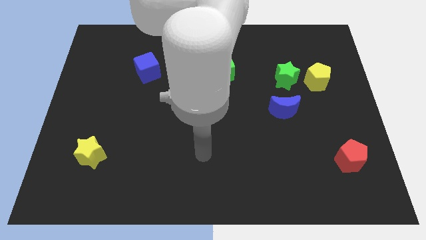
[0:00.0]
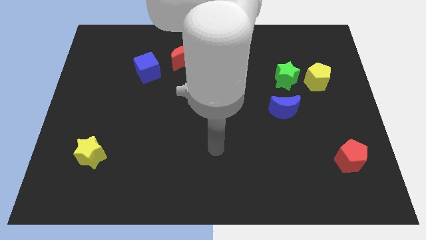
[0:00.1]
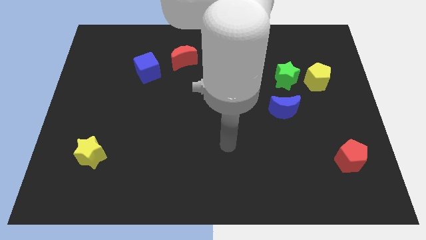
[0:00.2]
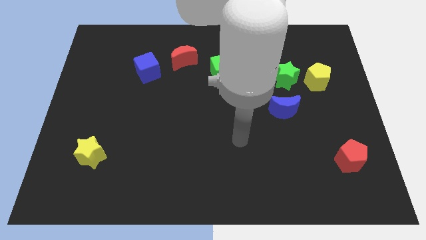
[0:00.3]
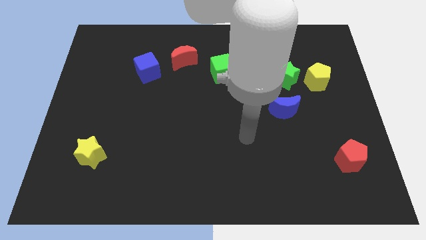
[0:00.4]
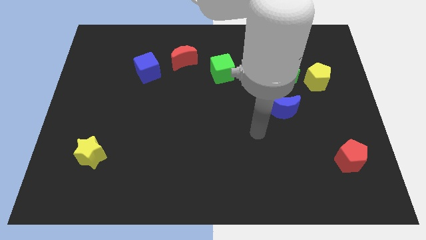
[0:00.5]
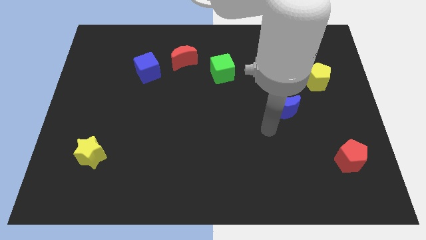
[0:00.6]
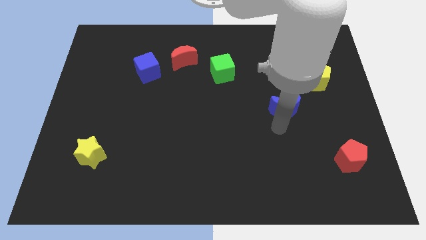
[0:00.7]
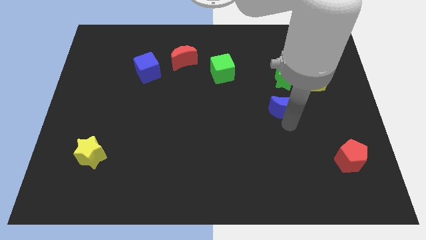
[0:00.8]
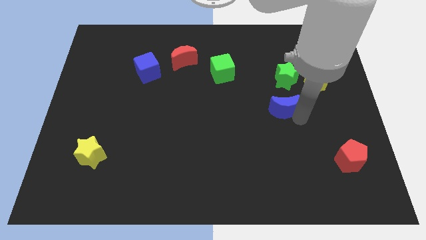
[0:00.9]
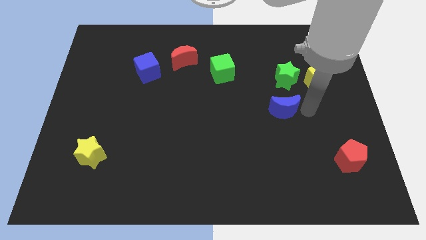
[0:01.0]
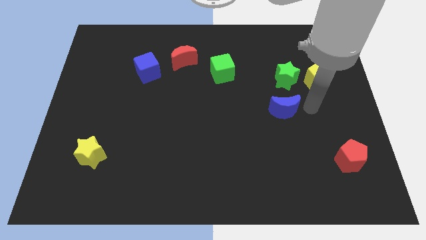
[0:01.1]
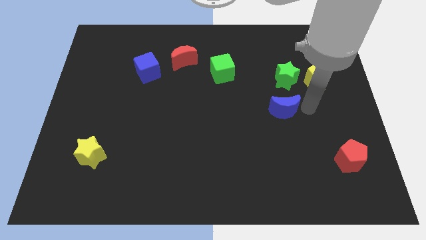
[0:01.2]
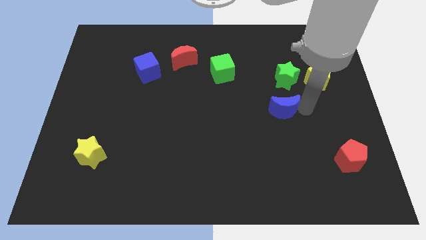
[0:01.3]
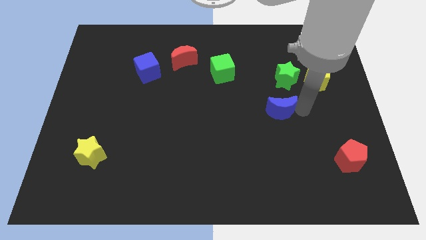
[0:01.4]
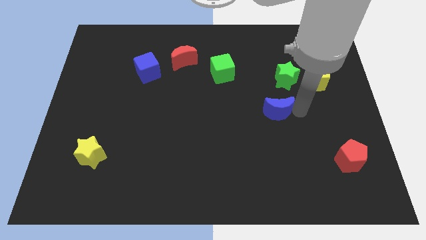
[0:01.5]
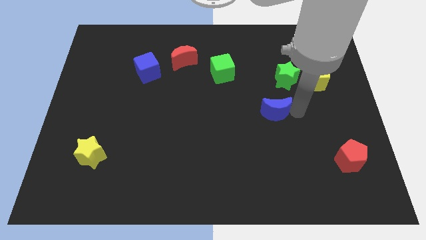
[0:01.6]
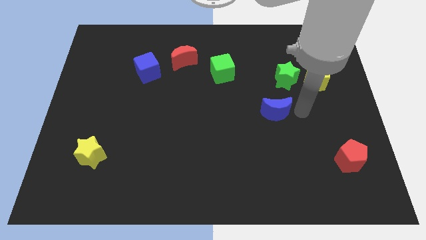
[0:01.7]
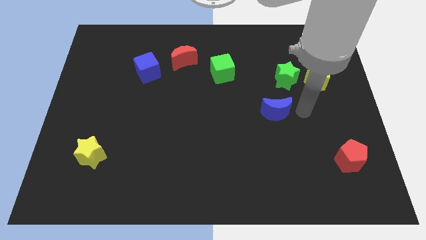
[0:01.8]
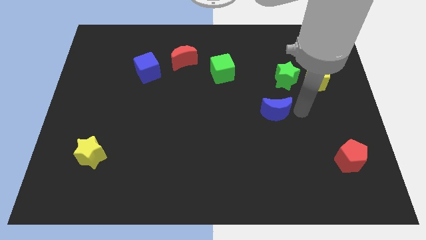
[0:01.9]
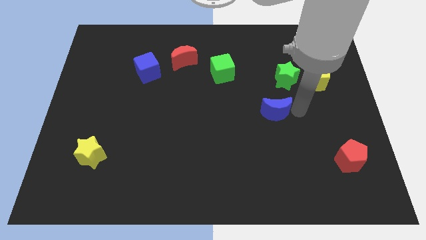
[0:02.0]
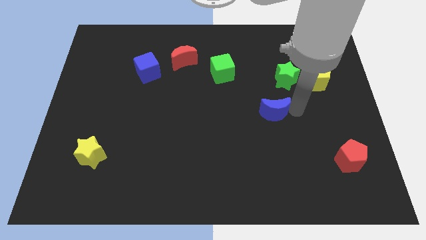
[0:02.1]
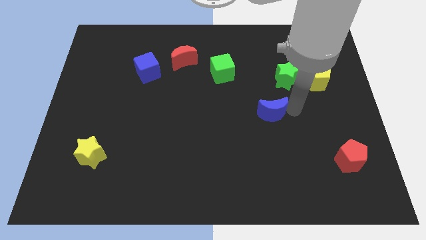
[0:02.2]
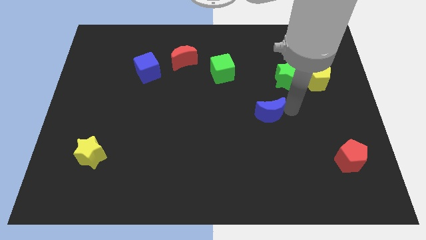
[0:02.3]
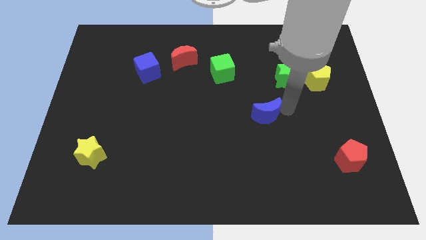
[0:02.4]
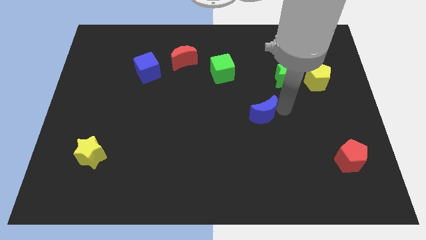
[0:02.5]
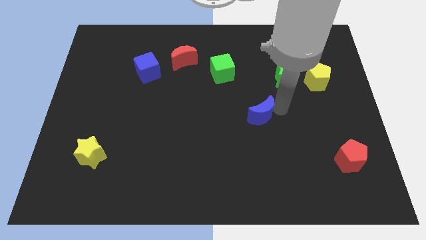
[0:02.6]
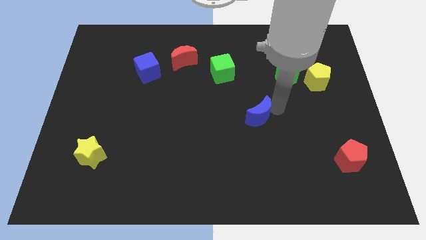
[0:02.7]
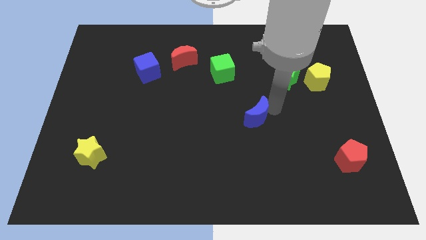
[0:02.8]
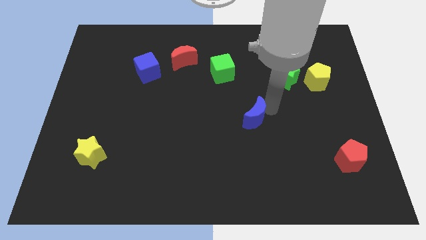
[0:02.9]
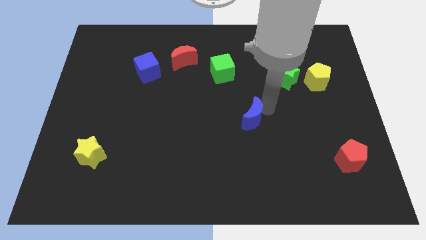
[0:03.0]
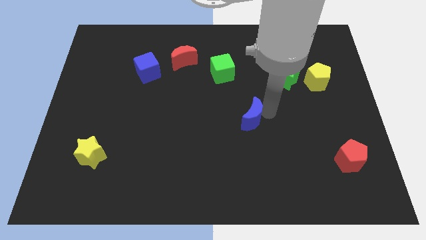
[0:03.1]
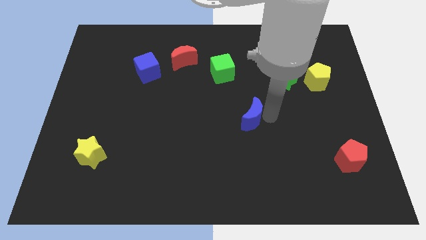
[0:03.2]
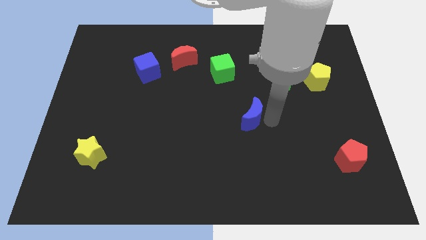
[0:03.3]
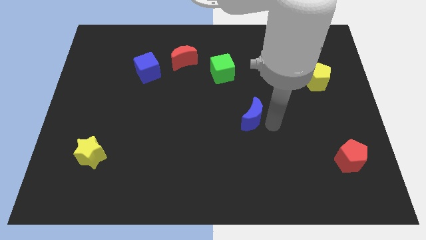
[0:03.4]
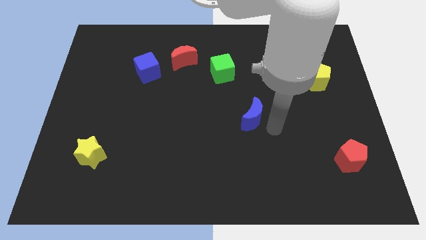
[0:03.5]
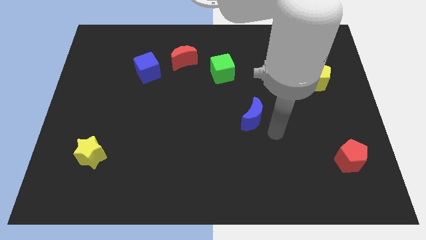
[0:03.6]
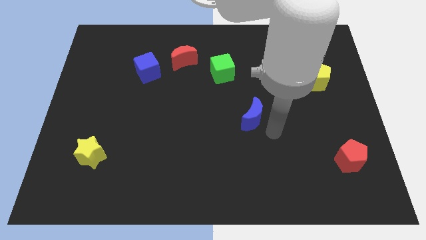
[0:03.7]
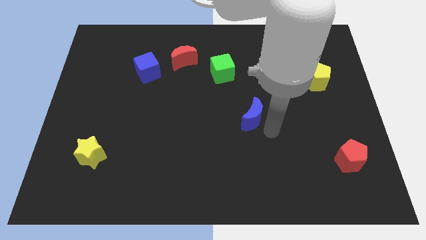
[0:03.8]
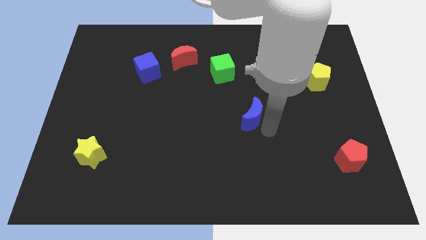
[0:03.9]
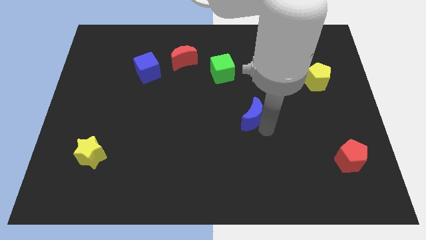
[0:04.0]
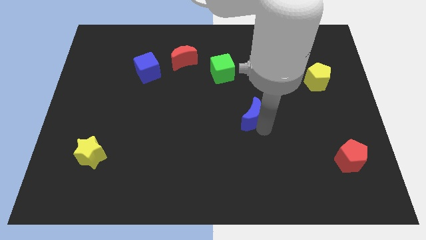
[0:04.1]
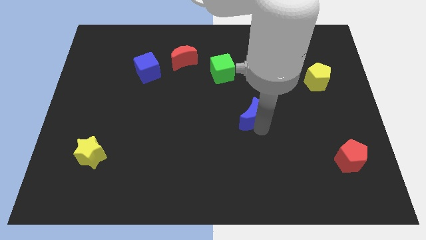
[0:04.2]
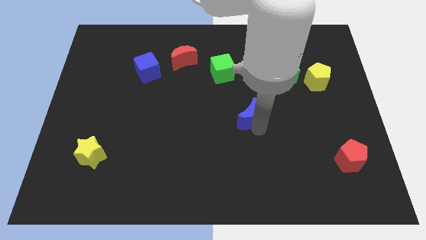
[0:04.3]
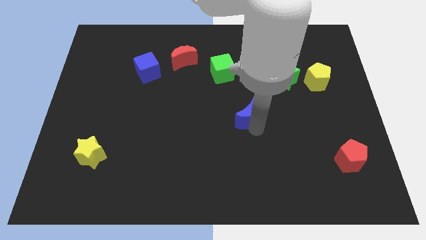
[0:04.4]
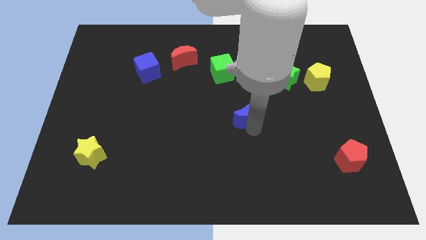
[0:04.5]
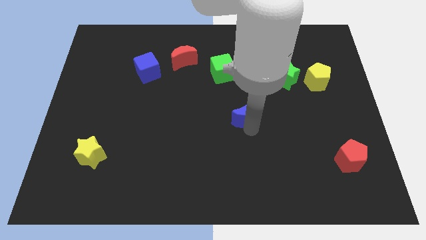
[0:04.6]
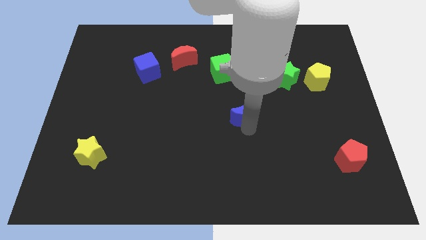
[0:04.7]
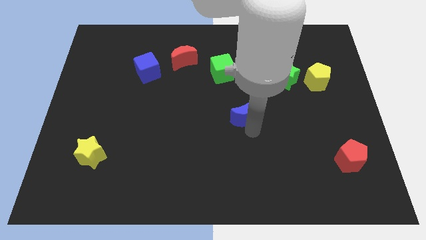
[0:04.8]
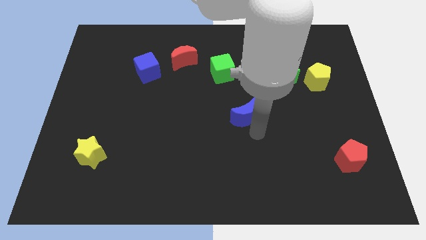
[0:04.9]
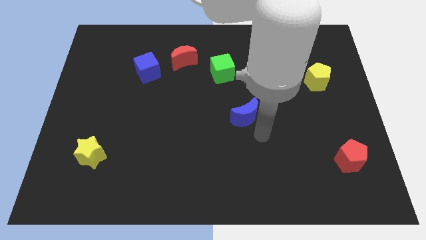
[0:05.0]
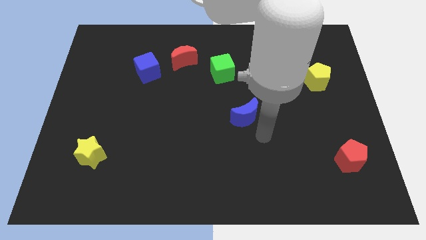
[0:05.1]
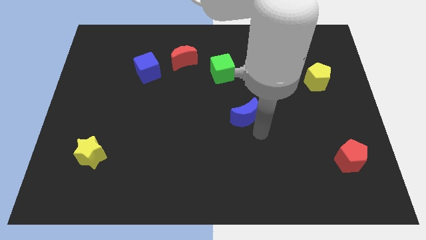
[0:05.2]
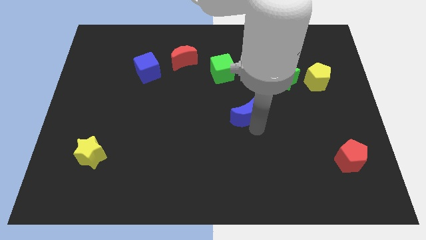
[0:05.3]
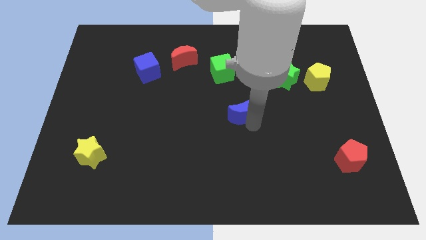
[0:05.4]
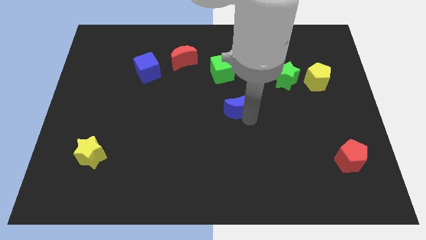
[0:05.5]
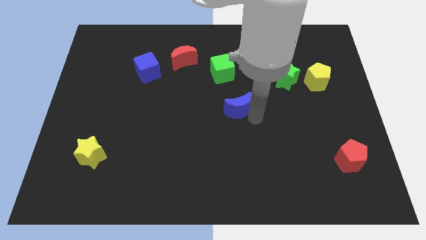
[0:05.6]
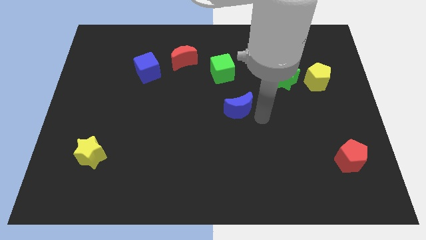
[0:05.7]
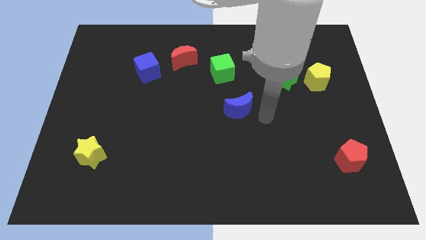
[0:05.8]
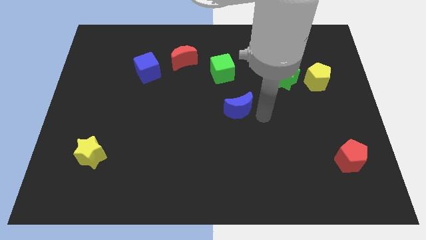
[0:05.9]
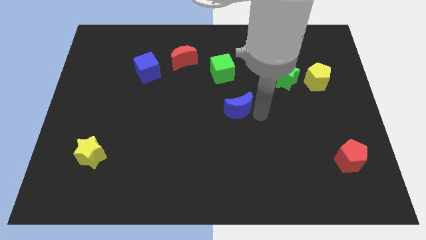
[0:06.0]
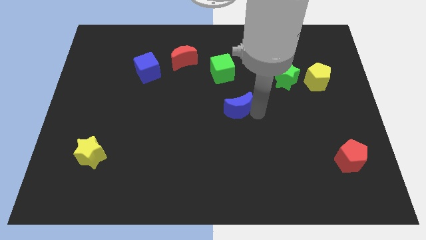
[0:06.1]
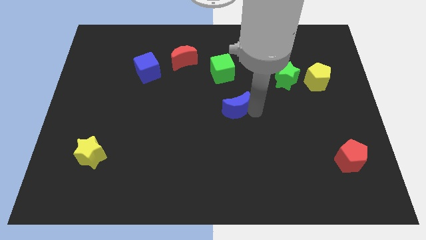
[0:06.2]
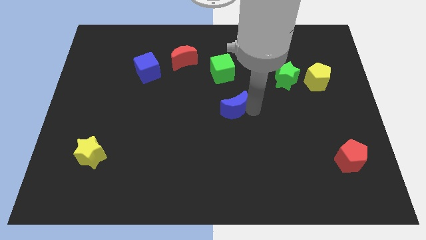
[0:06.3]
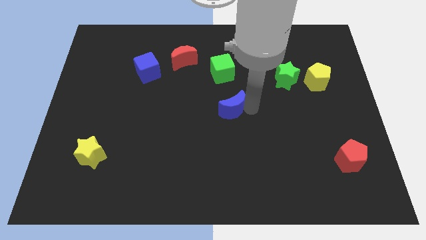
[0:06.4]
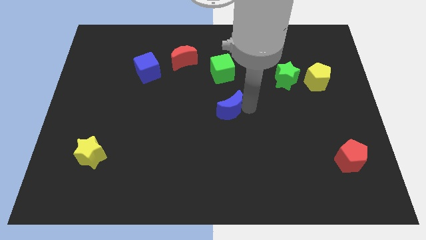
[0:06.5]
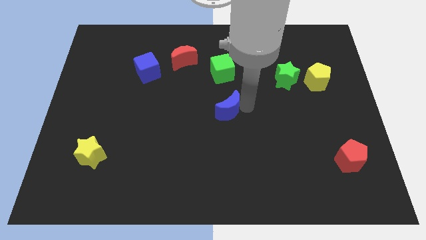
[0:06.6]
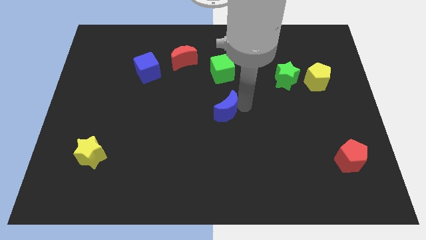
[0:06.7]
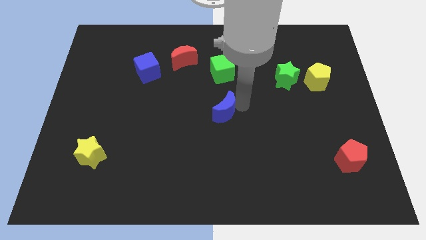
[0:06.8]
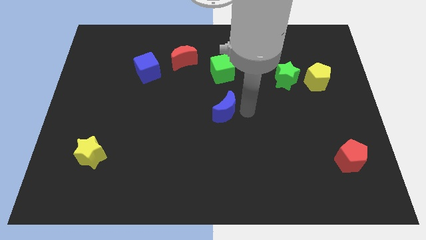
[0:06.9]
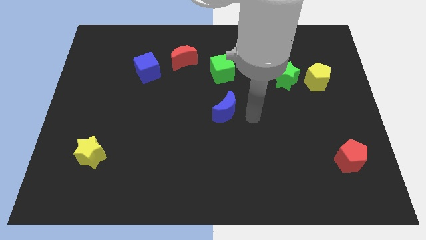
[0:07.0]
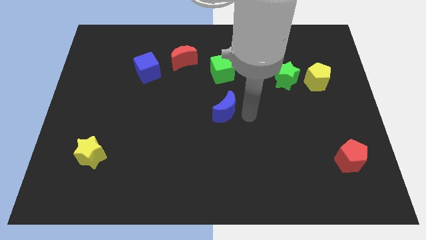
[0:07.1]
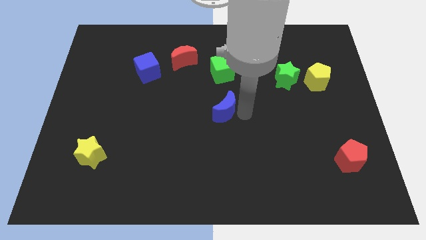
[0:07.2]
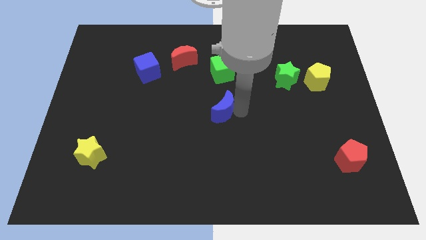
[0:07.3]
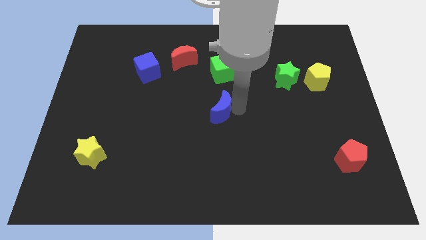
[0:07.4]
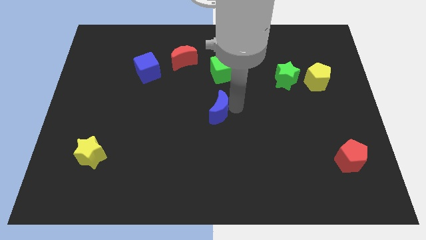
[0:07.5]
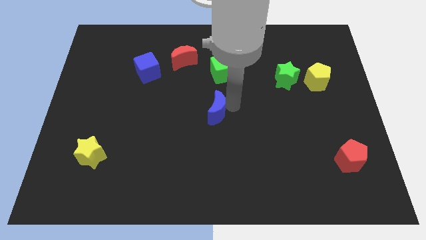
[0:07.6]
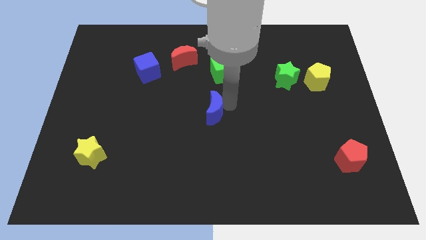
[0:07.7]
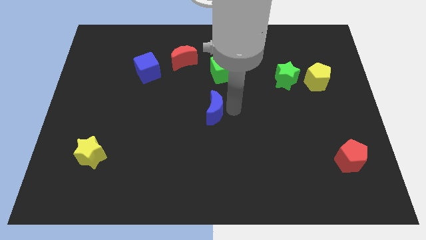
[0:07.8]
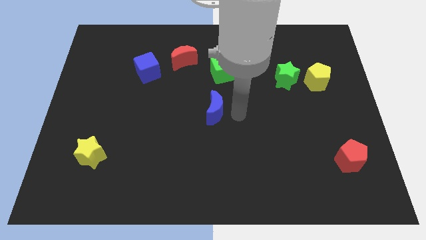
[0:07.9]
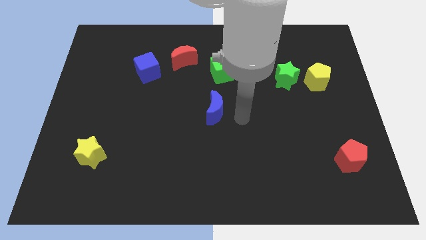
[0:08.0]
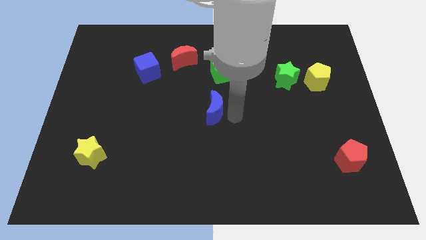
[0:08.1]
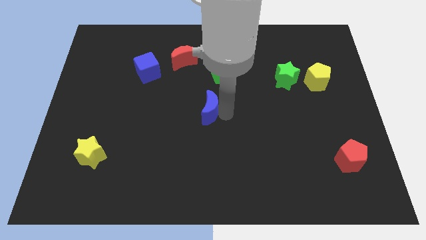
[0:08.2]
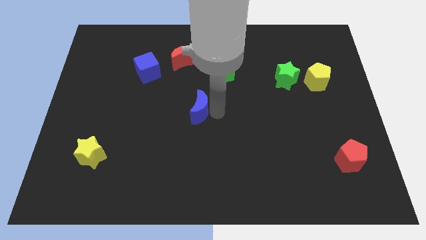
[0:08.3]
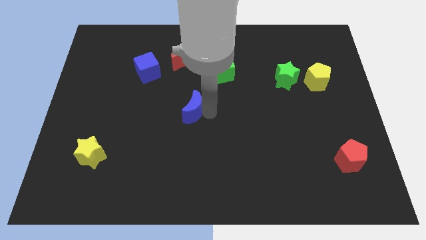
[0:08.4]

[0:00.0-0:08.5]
push the blue moon to the left
